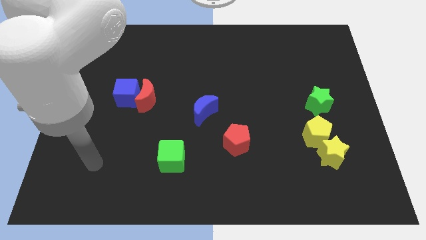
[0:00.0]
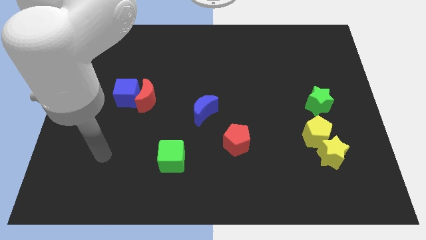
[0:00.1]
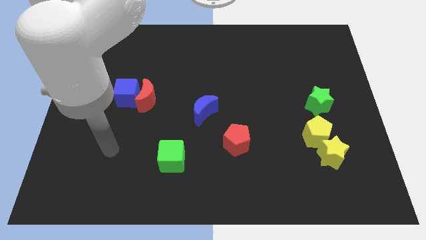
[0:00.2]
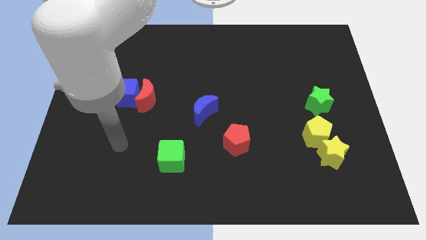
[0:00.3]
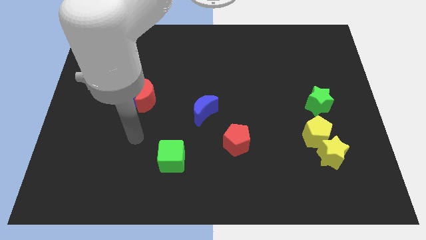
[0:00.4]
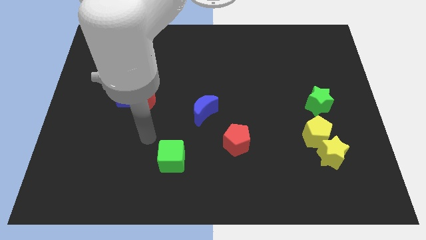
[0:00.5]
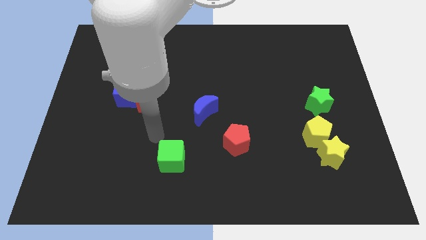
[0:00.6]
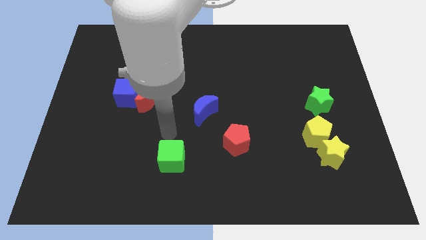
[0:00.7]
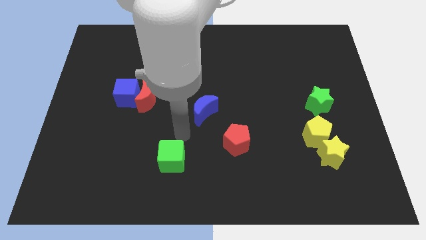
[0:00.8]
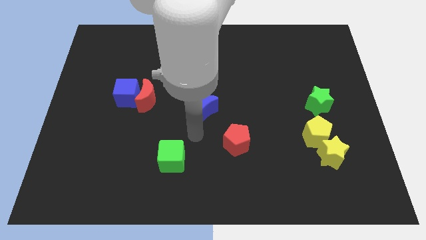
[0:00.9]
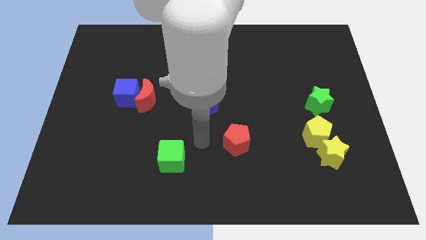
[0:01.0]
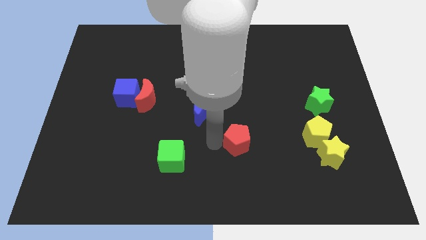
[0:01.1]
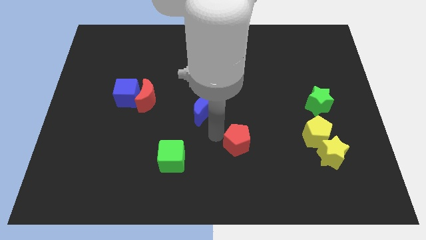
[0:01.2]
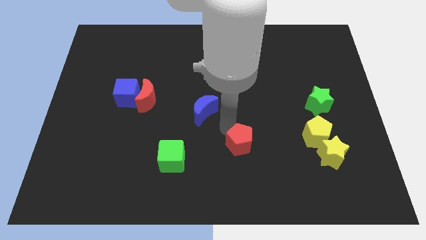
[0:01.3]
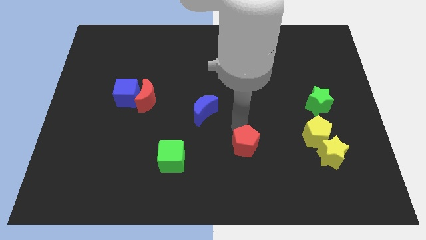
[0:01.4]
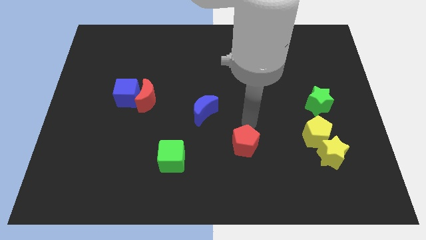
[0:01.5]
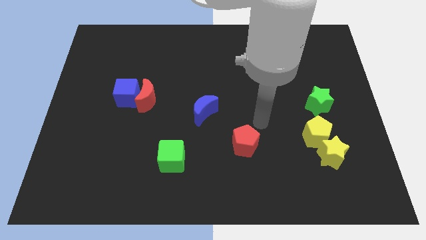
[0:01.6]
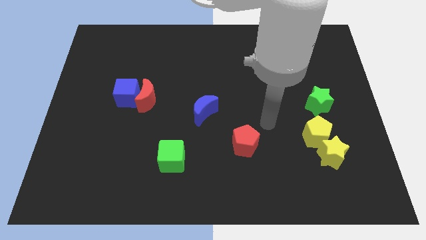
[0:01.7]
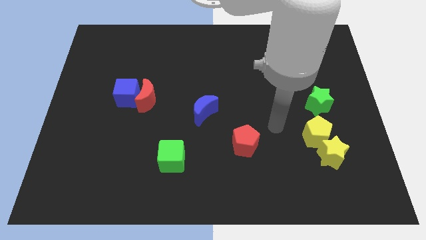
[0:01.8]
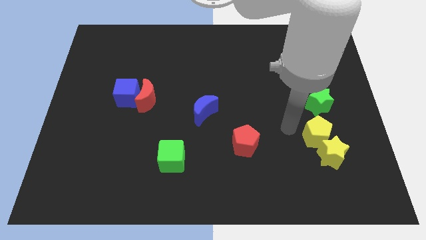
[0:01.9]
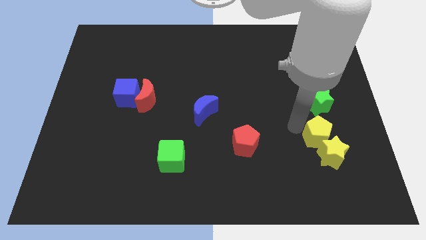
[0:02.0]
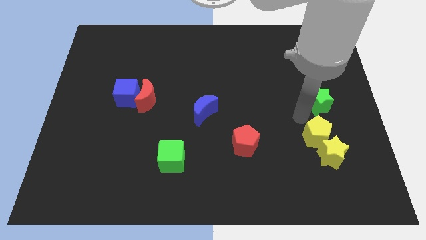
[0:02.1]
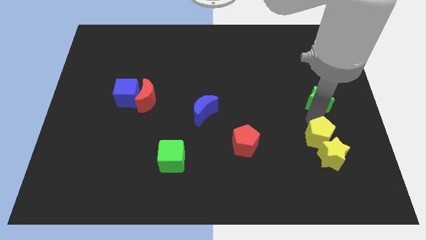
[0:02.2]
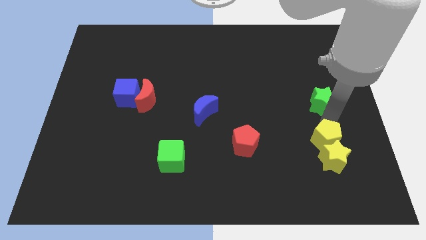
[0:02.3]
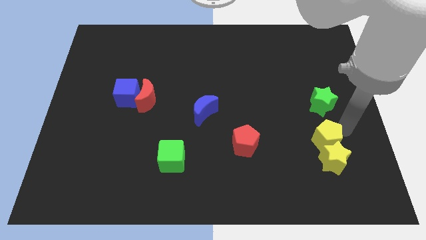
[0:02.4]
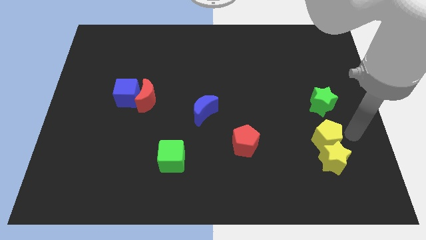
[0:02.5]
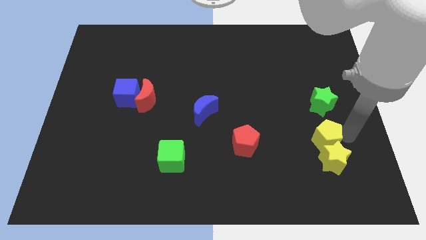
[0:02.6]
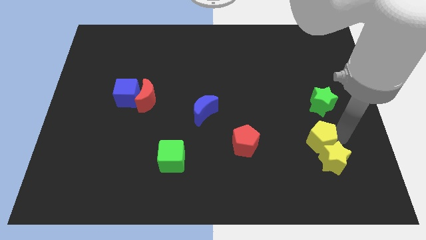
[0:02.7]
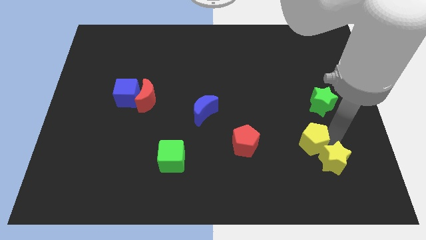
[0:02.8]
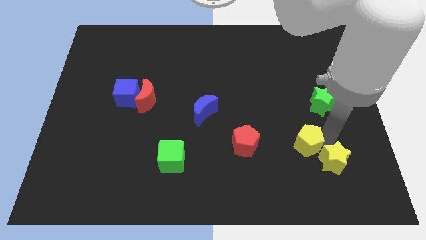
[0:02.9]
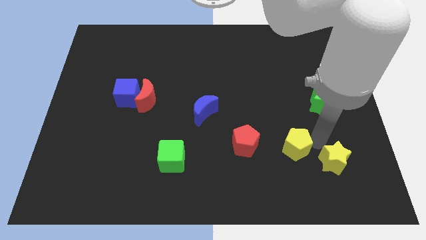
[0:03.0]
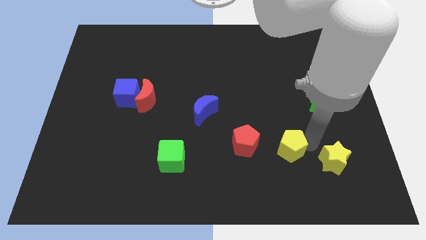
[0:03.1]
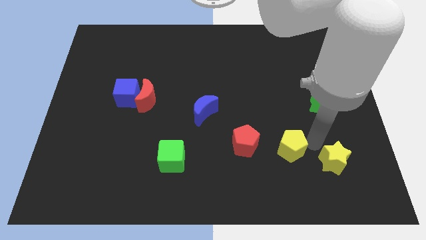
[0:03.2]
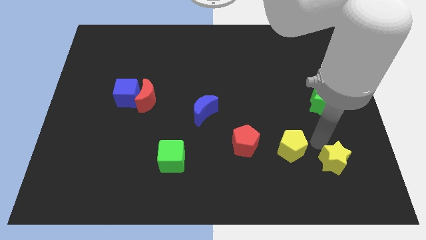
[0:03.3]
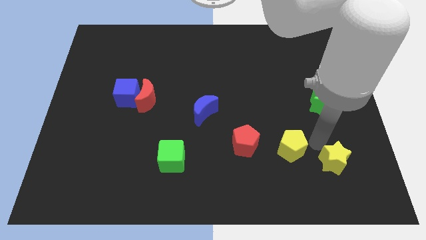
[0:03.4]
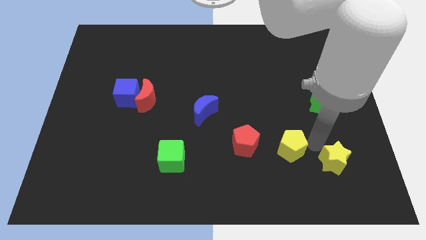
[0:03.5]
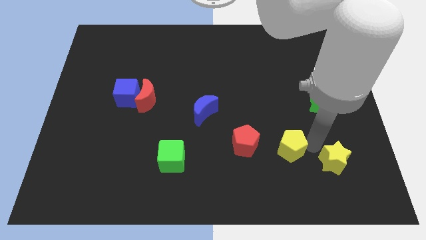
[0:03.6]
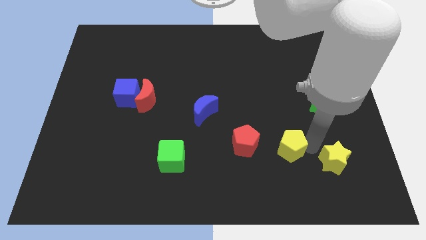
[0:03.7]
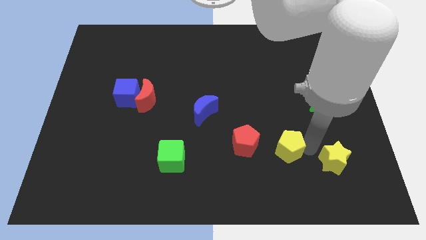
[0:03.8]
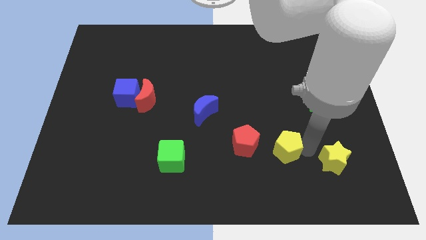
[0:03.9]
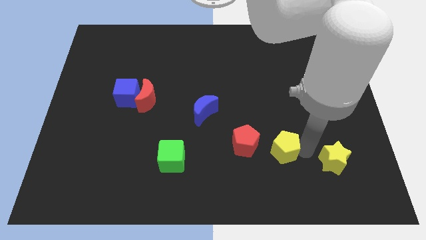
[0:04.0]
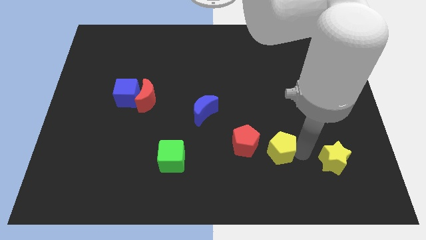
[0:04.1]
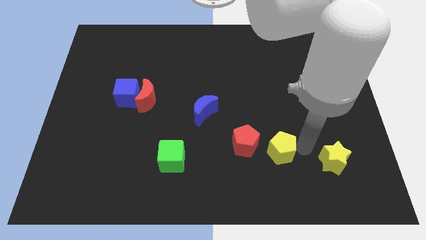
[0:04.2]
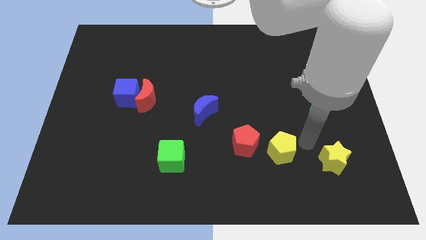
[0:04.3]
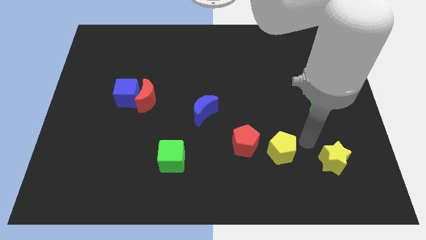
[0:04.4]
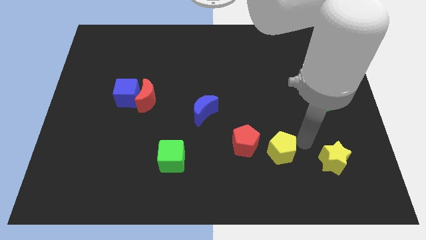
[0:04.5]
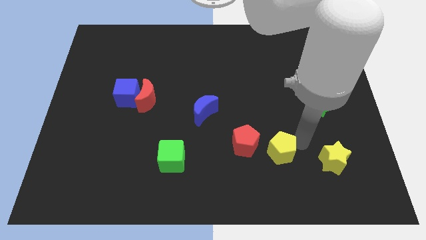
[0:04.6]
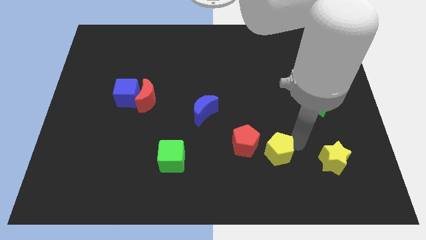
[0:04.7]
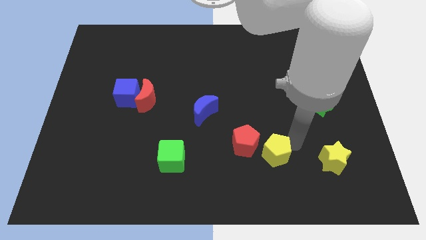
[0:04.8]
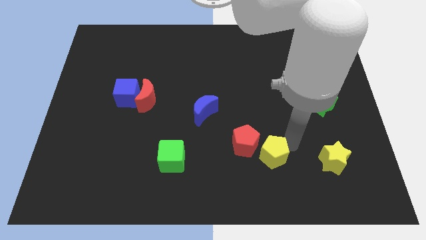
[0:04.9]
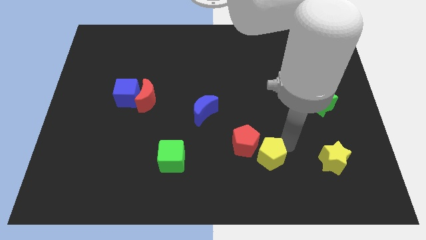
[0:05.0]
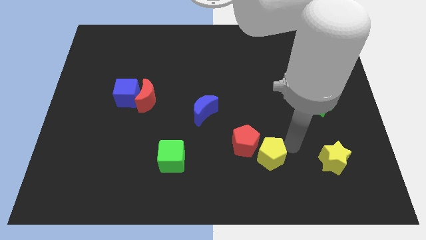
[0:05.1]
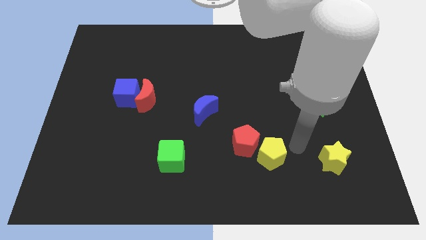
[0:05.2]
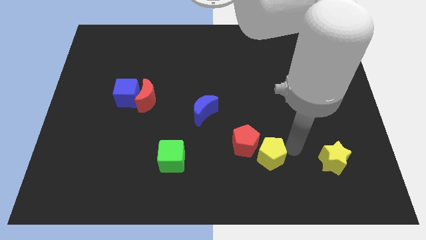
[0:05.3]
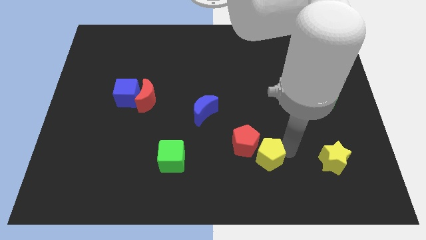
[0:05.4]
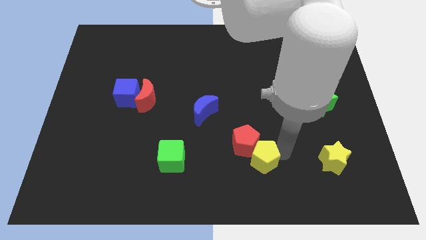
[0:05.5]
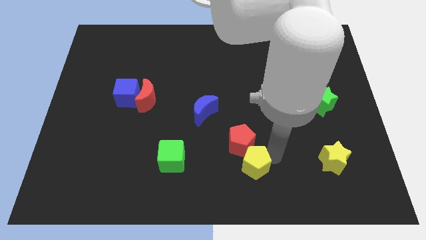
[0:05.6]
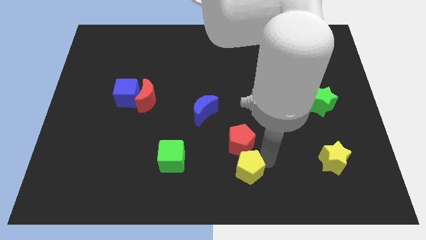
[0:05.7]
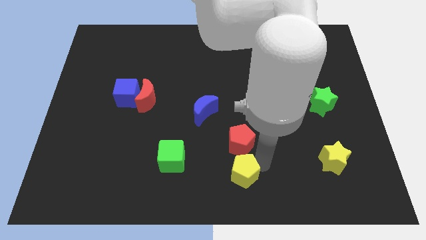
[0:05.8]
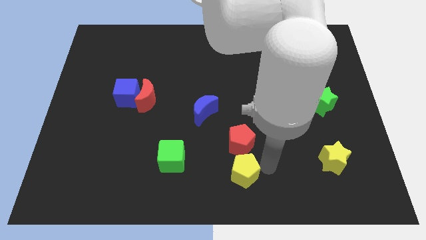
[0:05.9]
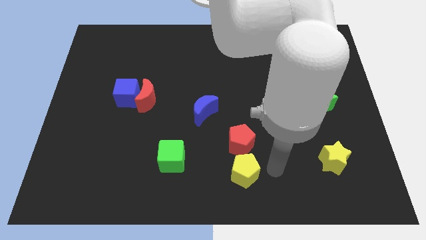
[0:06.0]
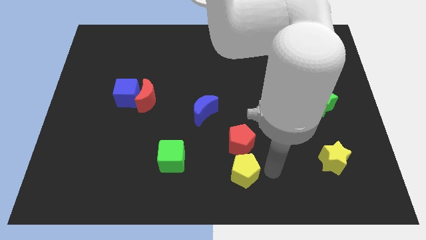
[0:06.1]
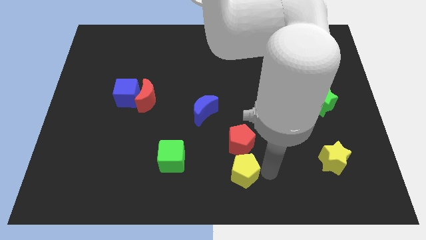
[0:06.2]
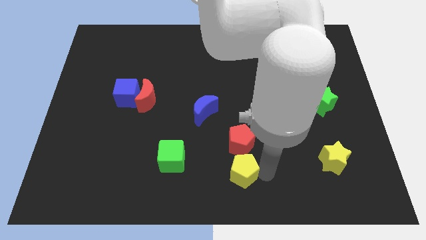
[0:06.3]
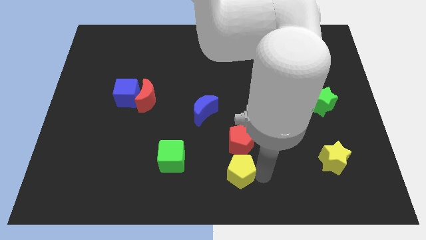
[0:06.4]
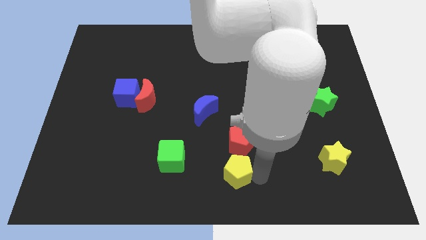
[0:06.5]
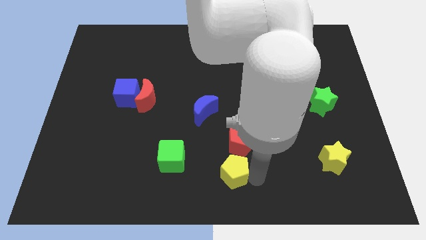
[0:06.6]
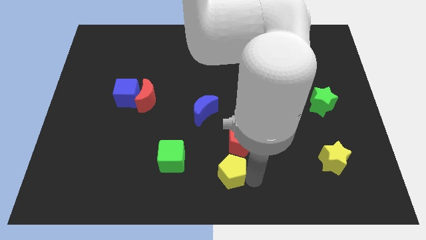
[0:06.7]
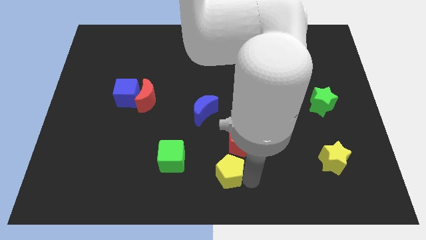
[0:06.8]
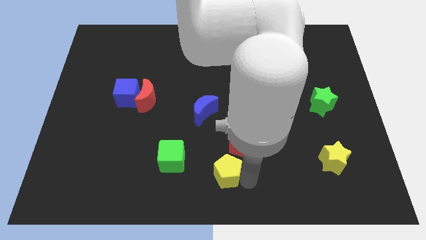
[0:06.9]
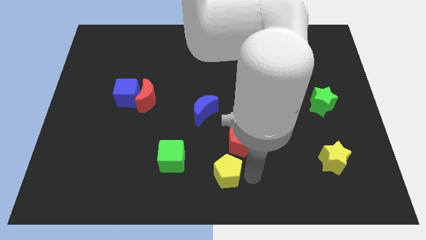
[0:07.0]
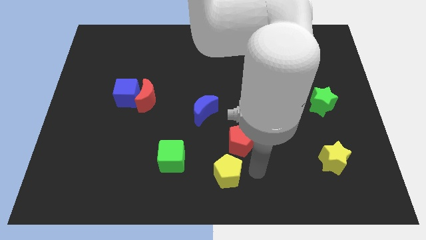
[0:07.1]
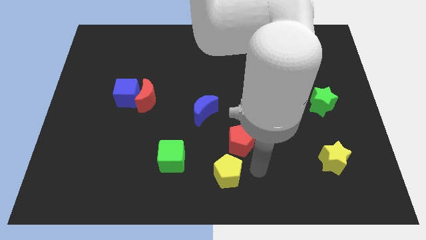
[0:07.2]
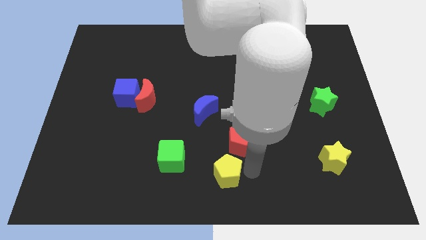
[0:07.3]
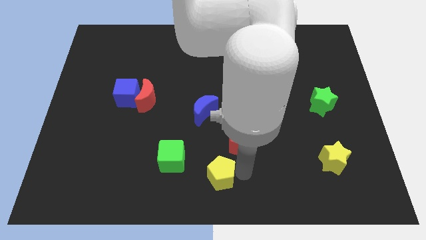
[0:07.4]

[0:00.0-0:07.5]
slide the yellow pentagon to the bottom right of the green cube
